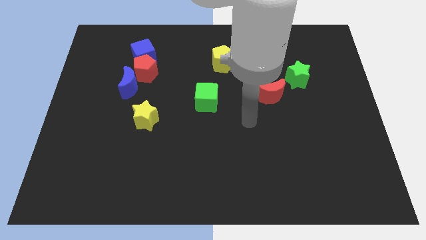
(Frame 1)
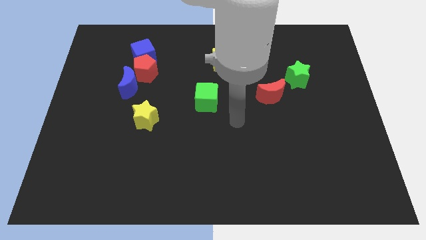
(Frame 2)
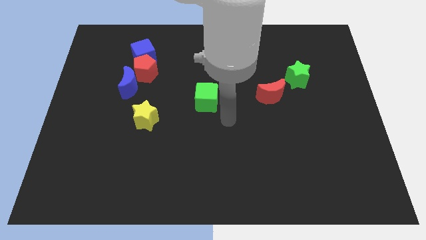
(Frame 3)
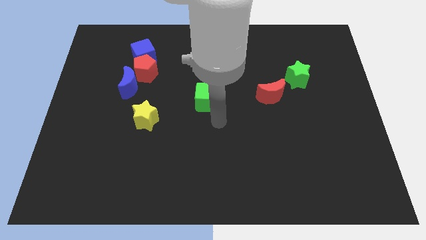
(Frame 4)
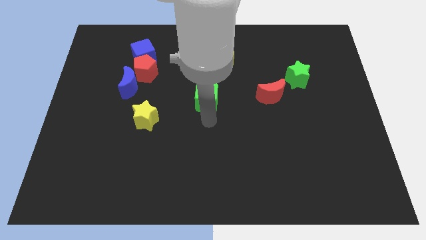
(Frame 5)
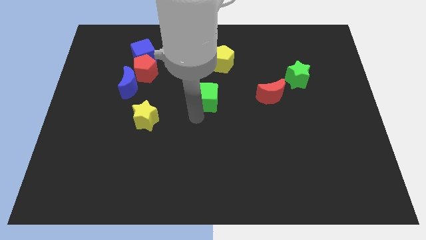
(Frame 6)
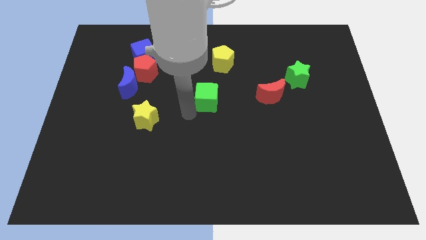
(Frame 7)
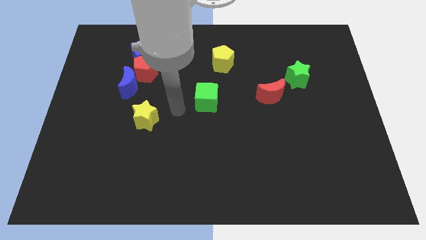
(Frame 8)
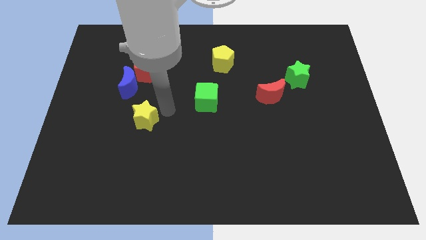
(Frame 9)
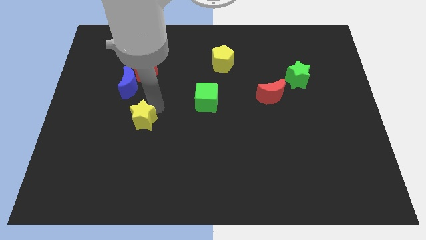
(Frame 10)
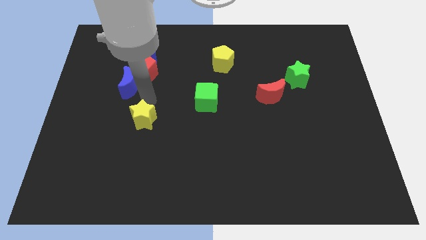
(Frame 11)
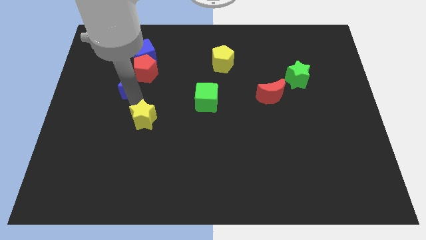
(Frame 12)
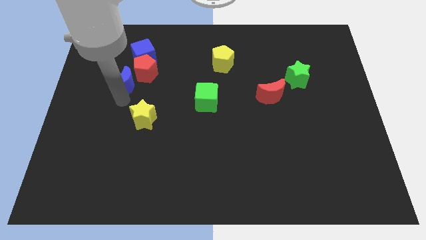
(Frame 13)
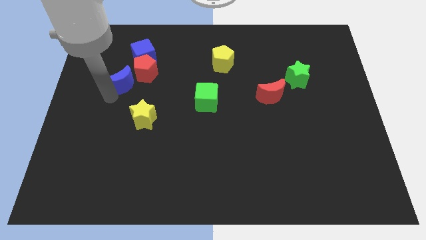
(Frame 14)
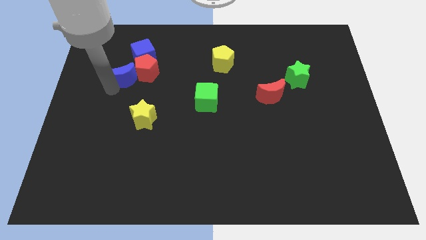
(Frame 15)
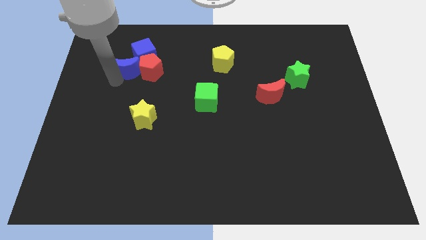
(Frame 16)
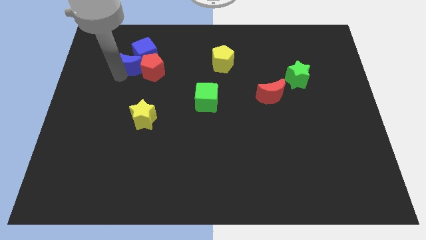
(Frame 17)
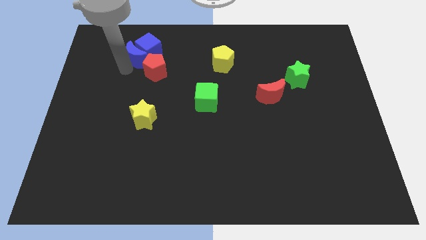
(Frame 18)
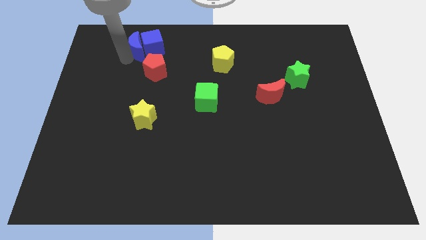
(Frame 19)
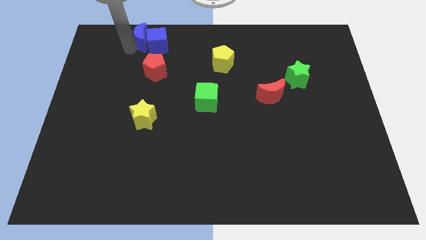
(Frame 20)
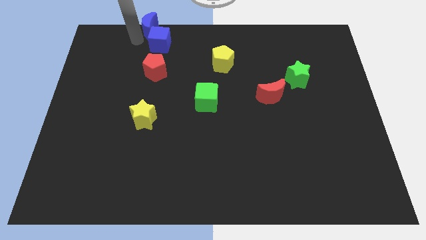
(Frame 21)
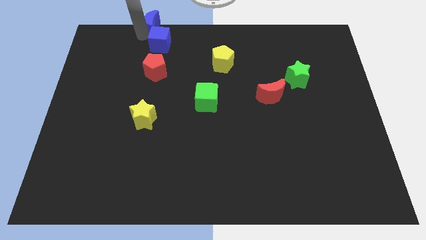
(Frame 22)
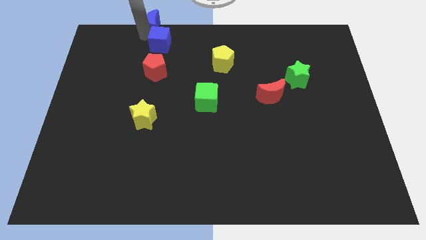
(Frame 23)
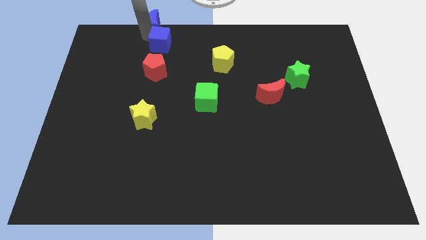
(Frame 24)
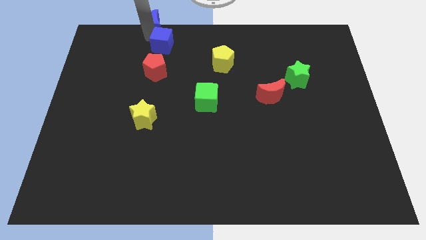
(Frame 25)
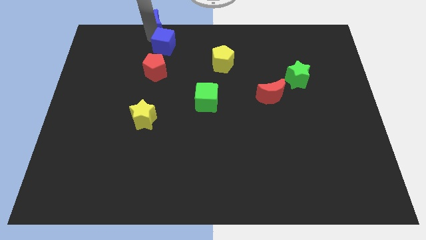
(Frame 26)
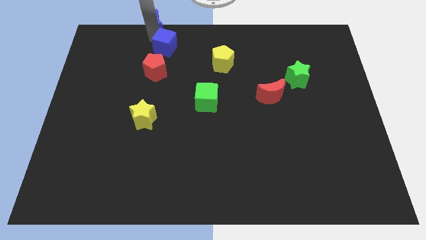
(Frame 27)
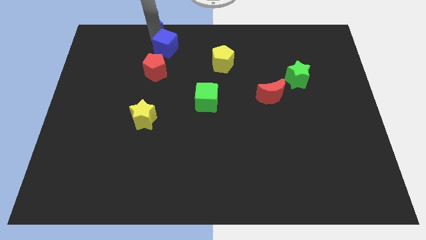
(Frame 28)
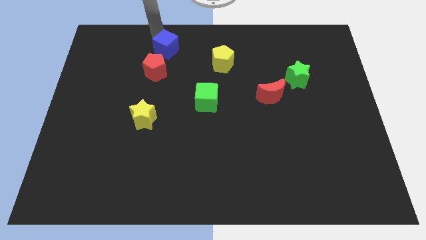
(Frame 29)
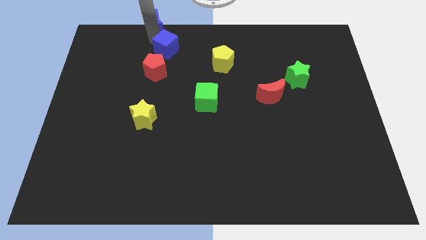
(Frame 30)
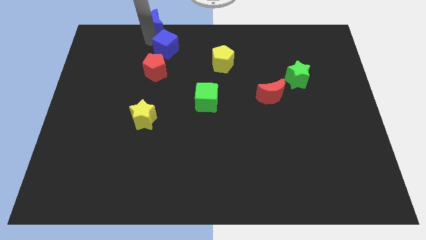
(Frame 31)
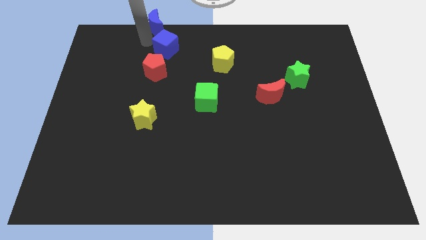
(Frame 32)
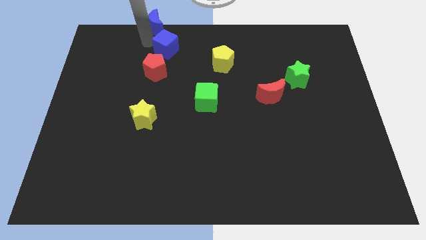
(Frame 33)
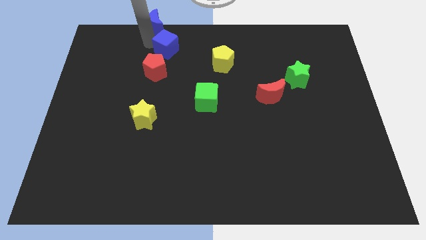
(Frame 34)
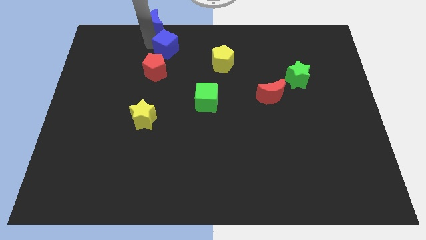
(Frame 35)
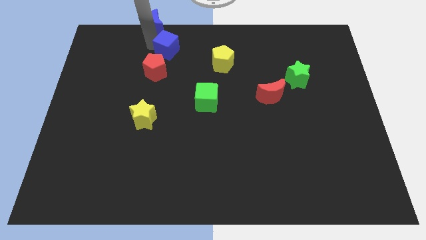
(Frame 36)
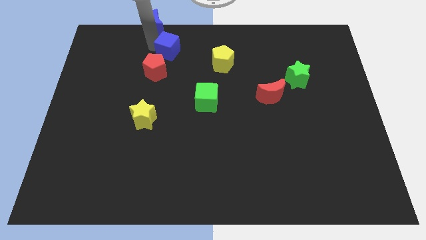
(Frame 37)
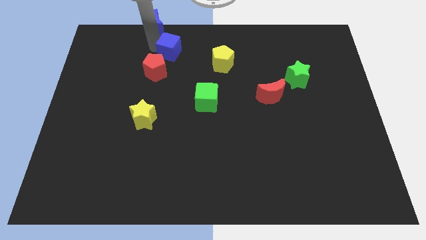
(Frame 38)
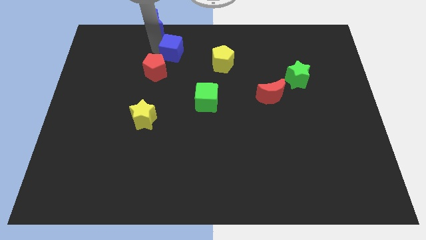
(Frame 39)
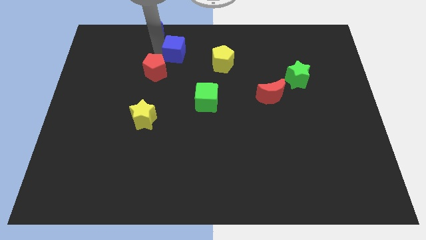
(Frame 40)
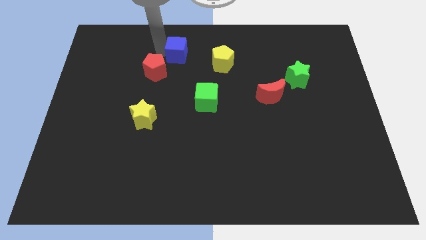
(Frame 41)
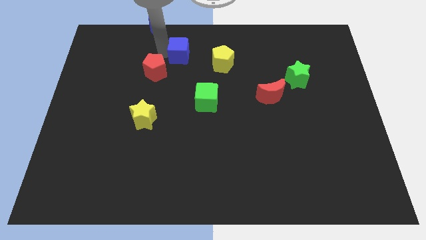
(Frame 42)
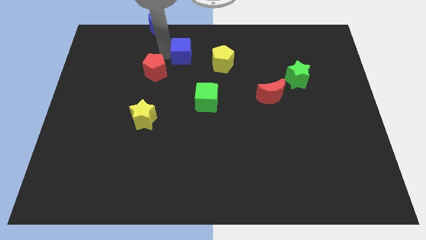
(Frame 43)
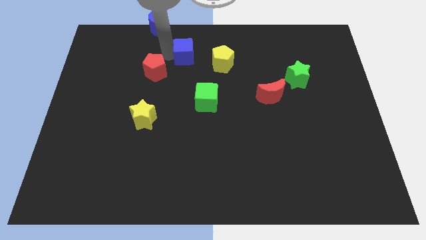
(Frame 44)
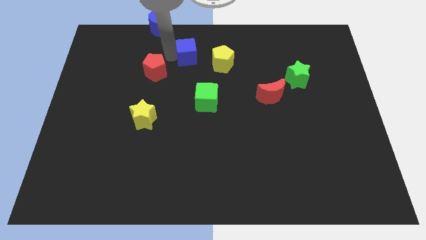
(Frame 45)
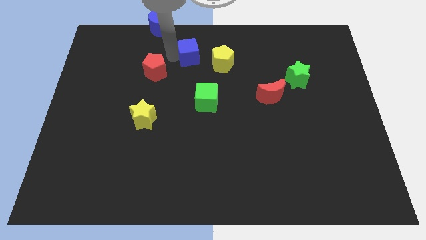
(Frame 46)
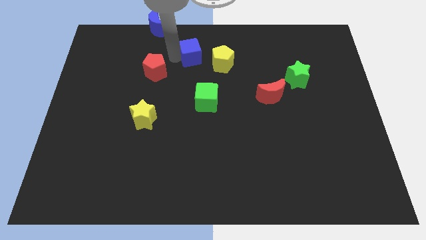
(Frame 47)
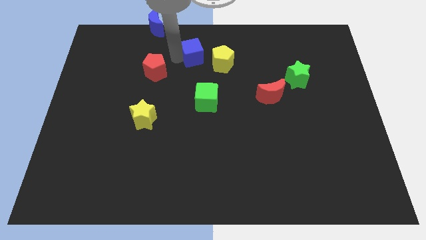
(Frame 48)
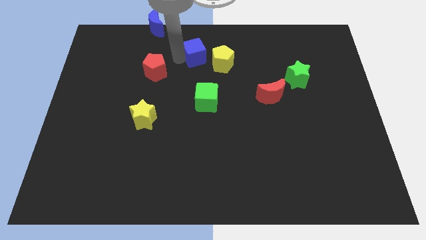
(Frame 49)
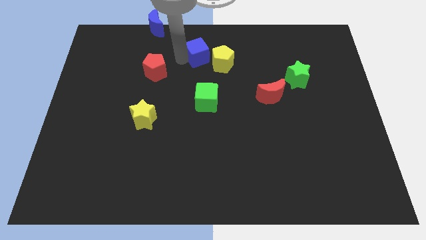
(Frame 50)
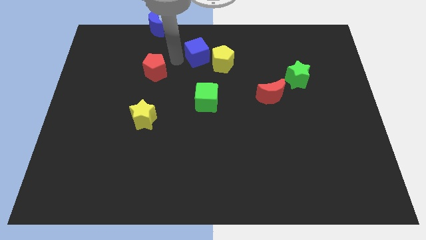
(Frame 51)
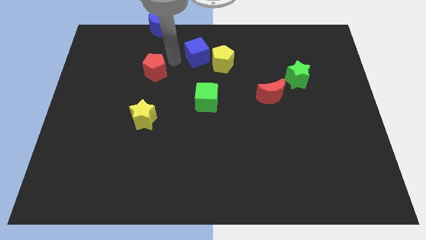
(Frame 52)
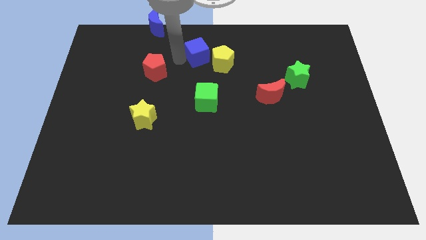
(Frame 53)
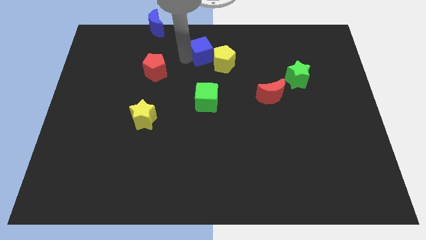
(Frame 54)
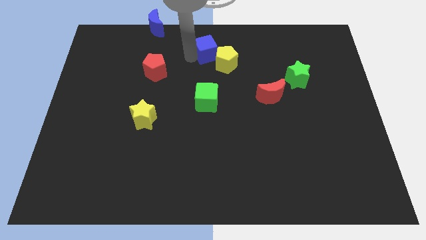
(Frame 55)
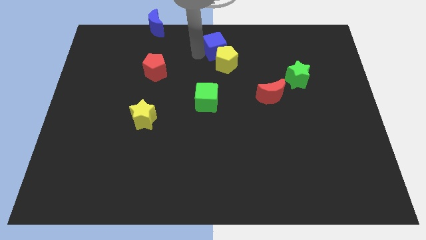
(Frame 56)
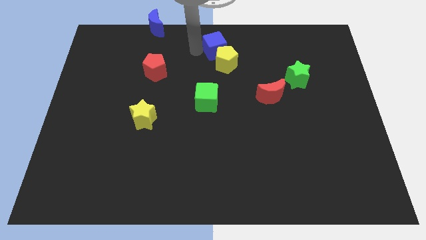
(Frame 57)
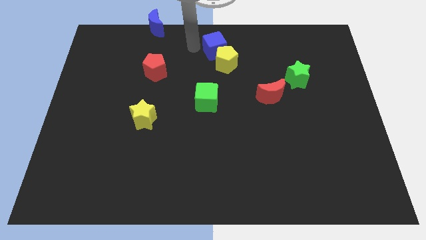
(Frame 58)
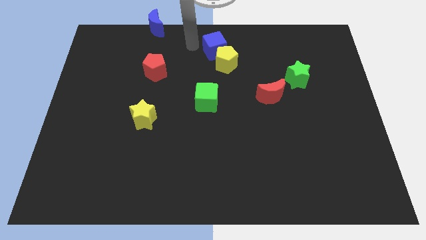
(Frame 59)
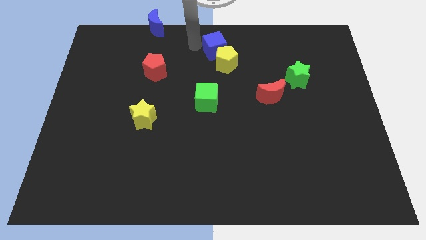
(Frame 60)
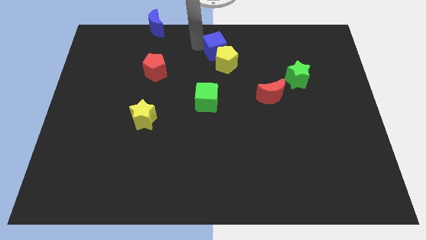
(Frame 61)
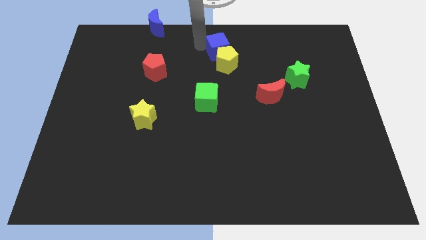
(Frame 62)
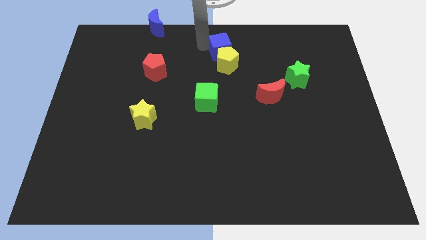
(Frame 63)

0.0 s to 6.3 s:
slide the blue cube to the right

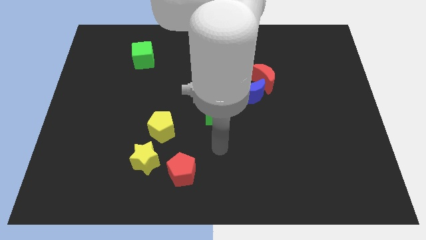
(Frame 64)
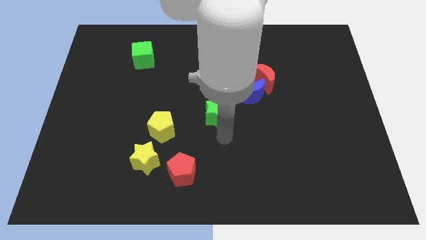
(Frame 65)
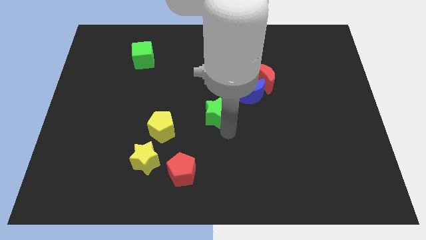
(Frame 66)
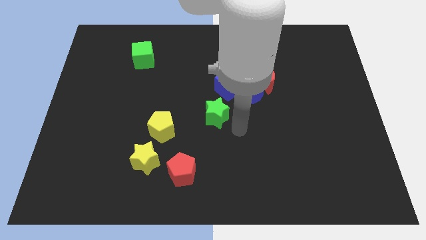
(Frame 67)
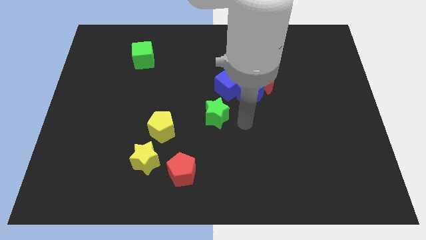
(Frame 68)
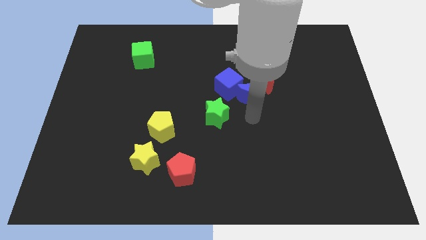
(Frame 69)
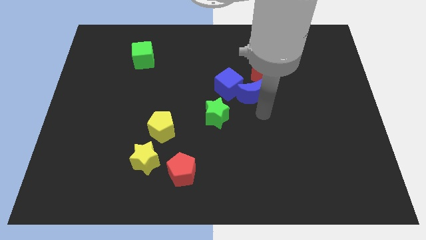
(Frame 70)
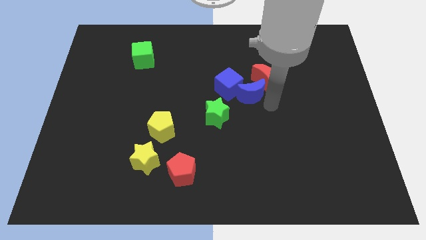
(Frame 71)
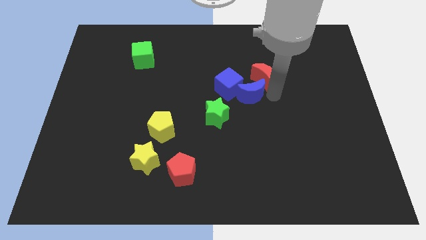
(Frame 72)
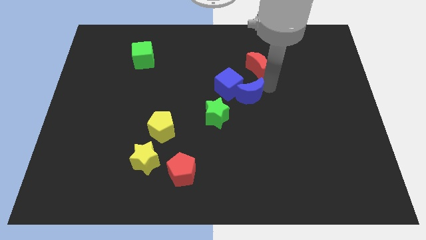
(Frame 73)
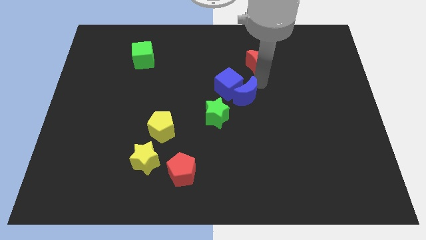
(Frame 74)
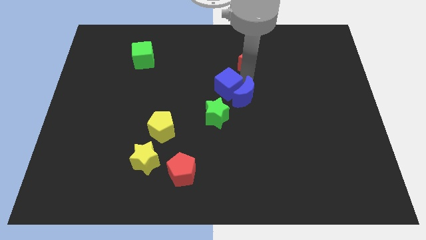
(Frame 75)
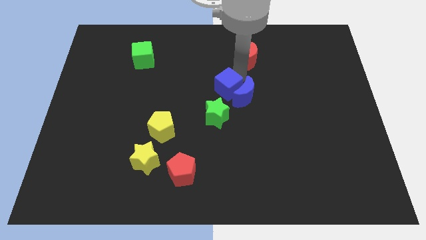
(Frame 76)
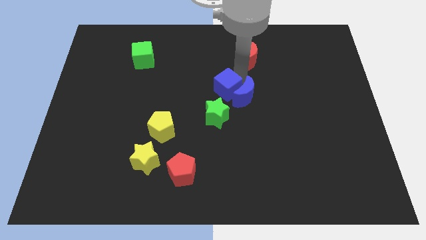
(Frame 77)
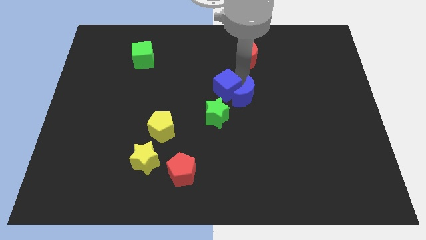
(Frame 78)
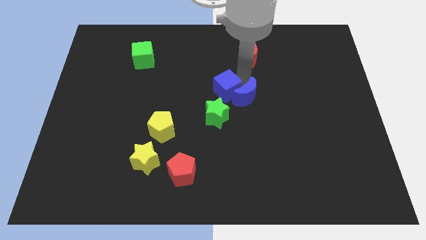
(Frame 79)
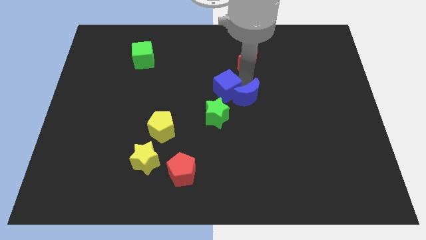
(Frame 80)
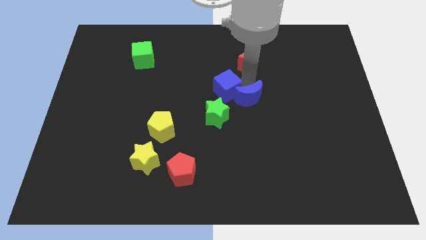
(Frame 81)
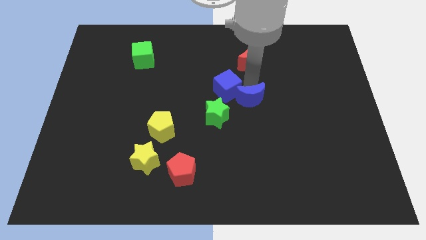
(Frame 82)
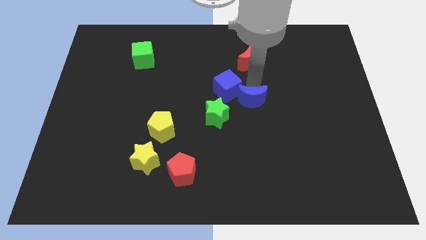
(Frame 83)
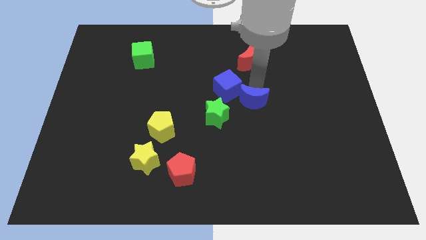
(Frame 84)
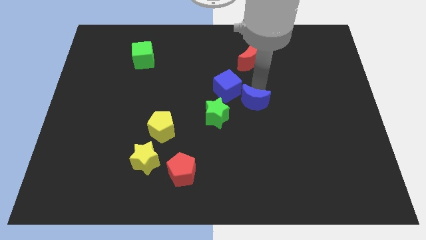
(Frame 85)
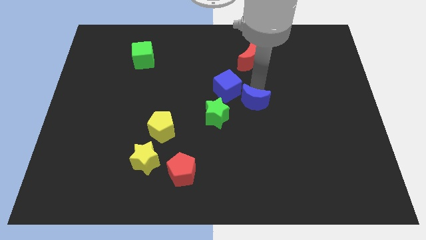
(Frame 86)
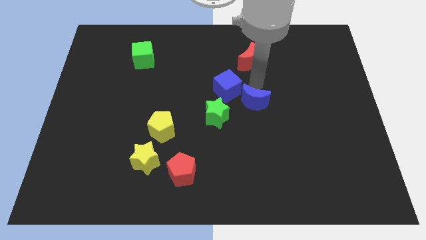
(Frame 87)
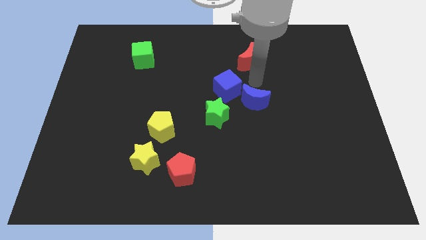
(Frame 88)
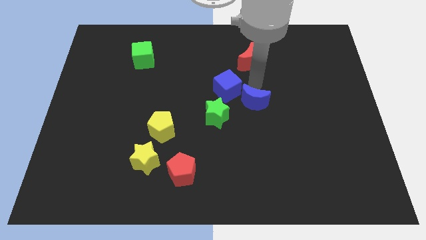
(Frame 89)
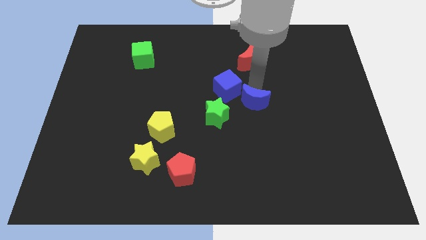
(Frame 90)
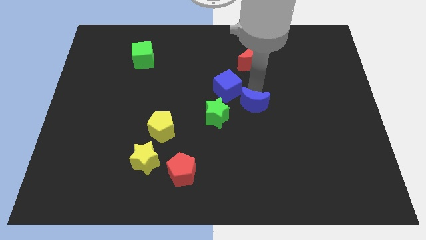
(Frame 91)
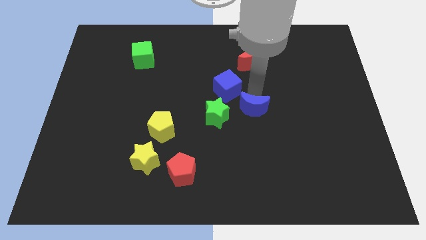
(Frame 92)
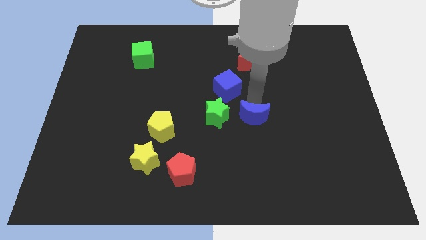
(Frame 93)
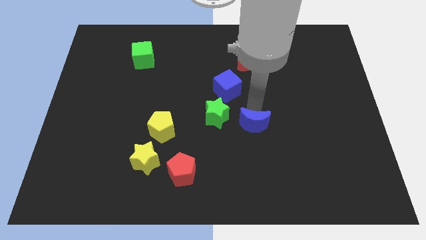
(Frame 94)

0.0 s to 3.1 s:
slightly slide the blue moon down
